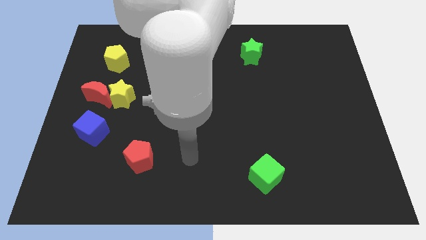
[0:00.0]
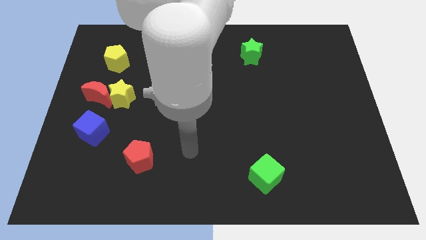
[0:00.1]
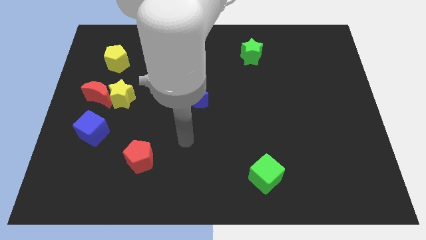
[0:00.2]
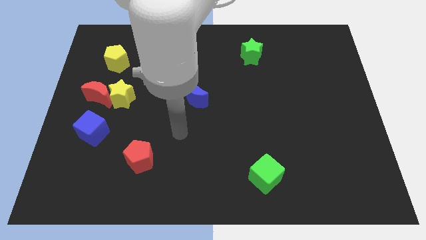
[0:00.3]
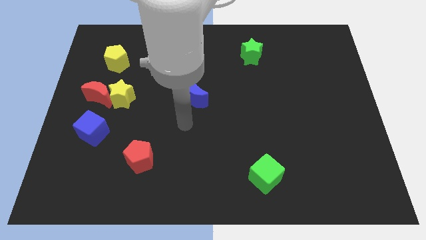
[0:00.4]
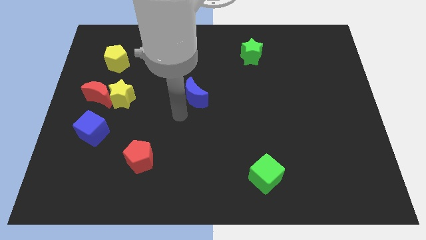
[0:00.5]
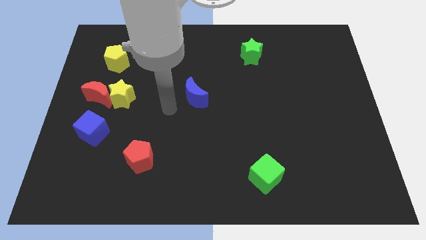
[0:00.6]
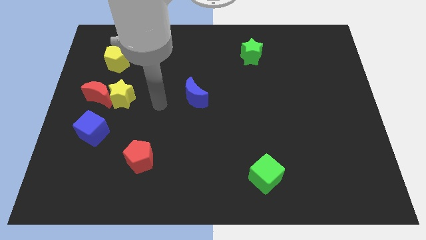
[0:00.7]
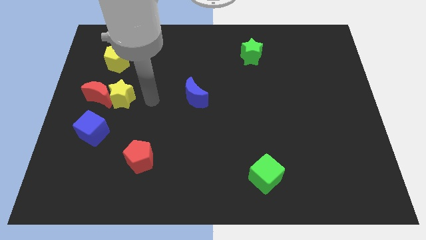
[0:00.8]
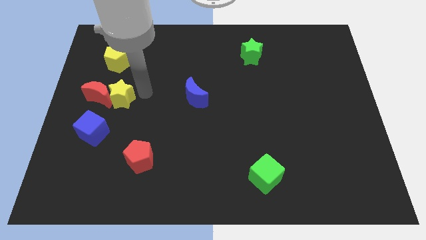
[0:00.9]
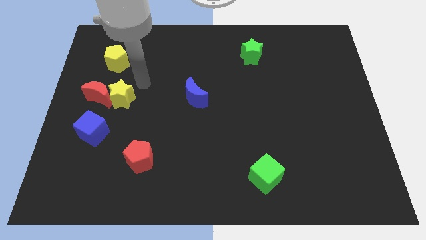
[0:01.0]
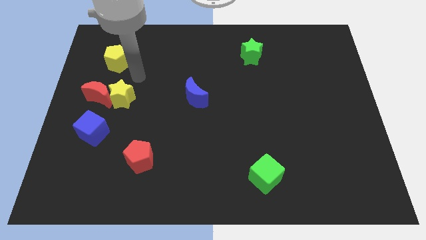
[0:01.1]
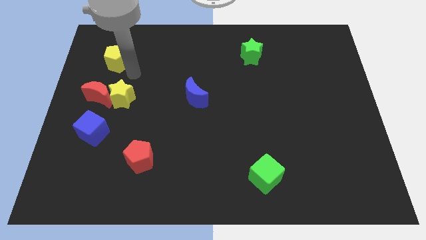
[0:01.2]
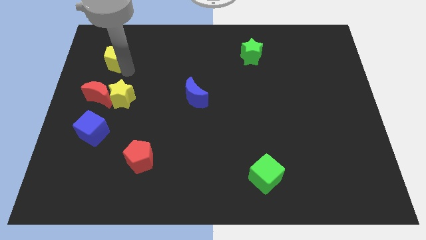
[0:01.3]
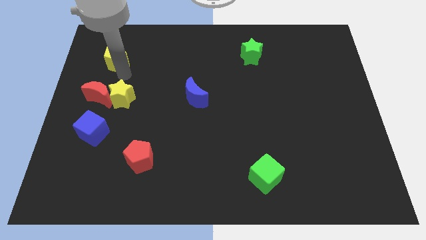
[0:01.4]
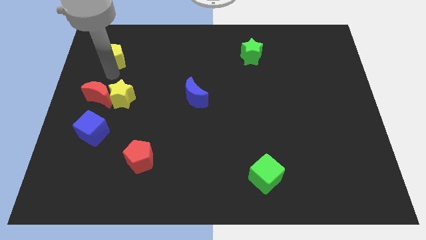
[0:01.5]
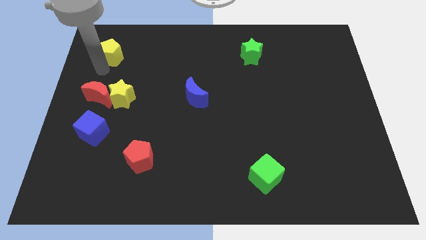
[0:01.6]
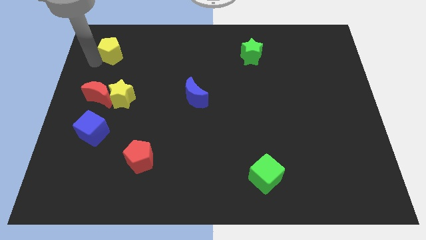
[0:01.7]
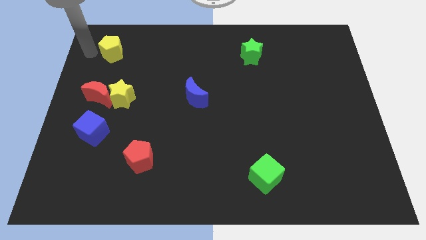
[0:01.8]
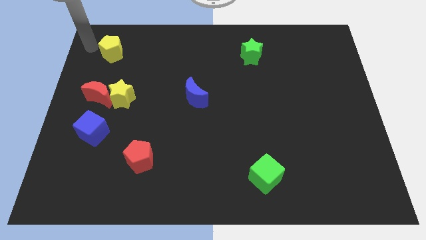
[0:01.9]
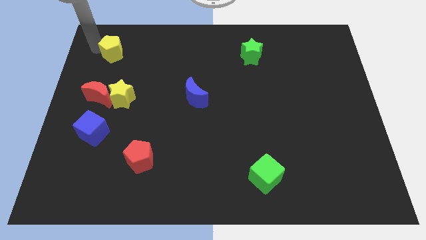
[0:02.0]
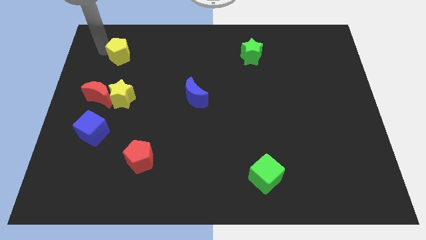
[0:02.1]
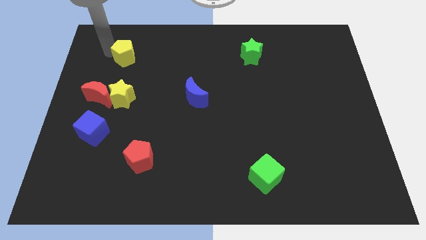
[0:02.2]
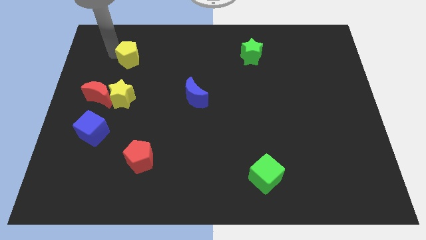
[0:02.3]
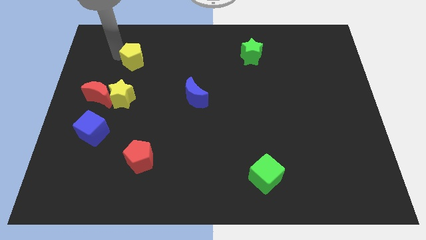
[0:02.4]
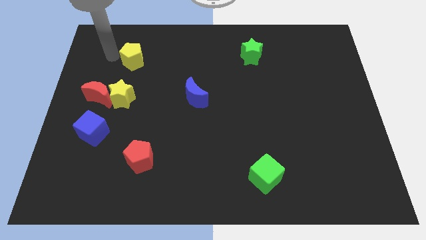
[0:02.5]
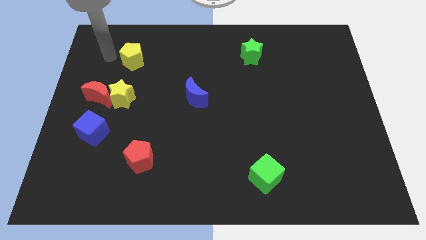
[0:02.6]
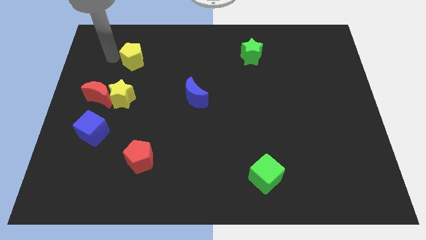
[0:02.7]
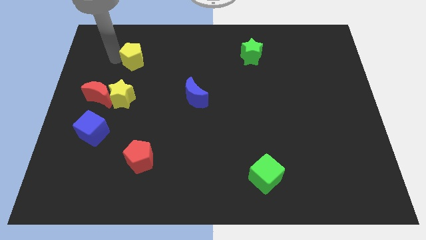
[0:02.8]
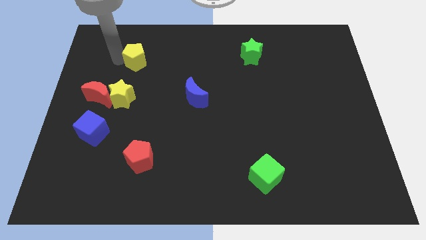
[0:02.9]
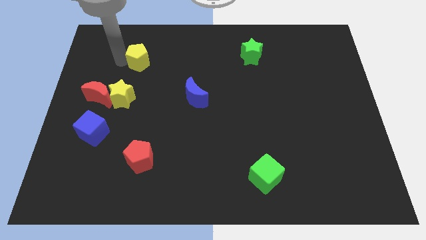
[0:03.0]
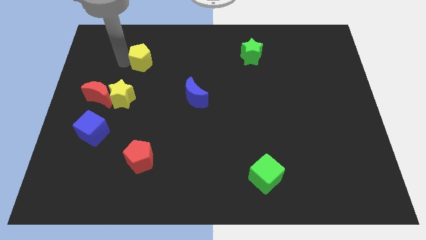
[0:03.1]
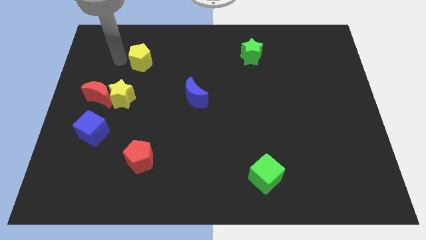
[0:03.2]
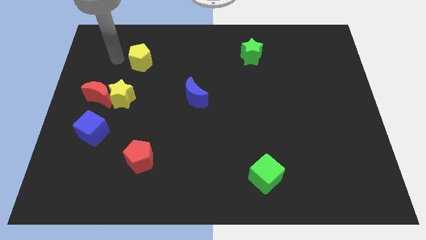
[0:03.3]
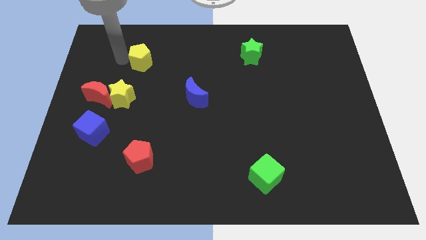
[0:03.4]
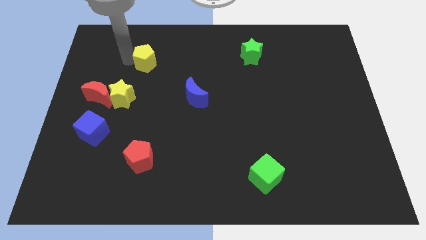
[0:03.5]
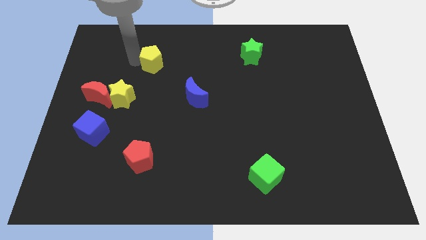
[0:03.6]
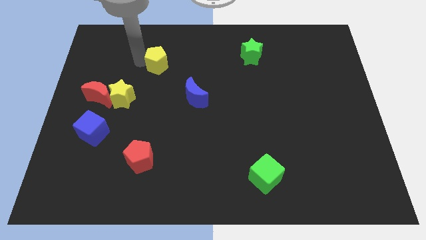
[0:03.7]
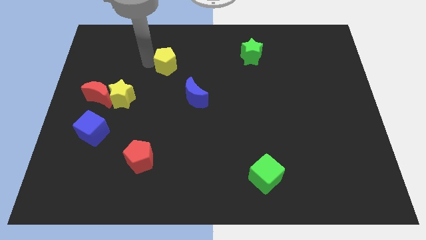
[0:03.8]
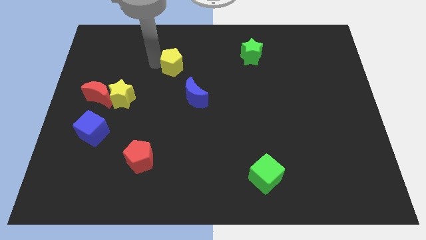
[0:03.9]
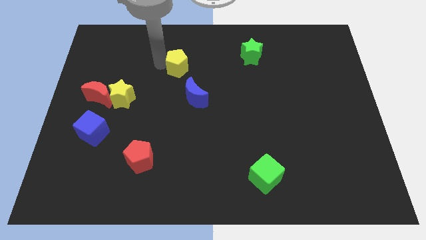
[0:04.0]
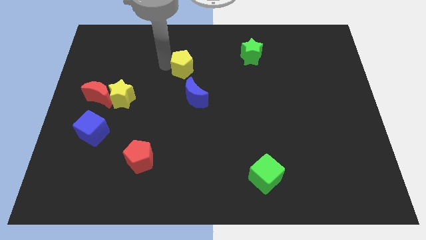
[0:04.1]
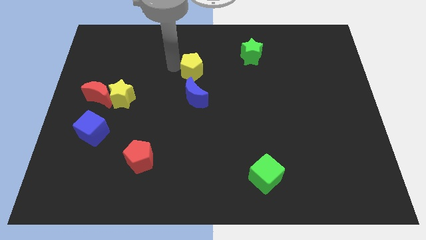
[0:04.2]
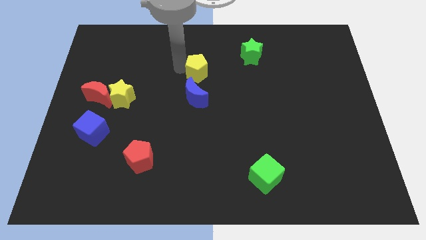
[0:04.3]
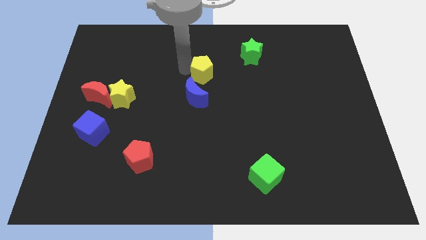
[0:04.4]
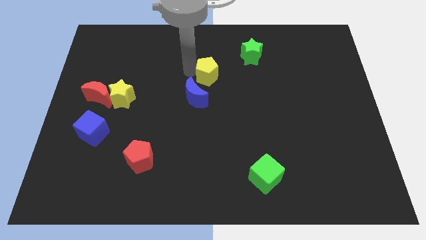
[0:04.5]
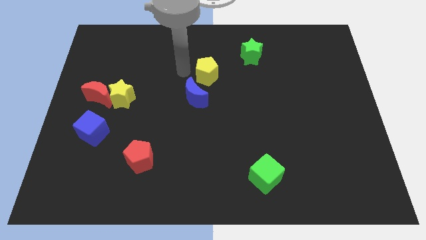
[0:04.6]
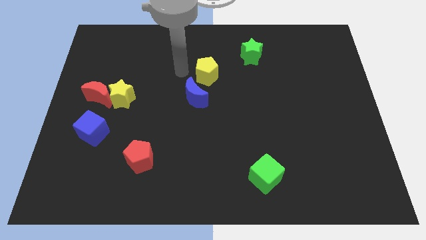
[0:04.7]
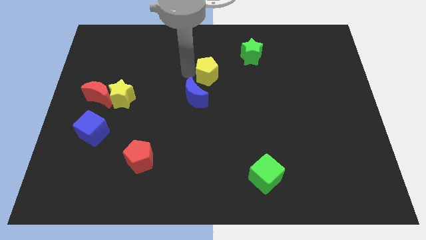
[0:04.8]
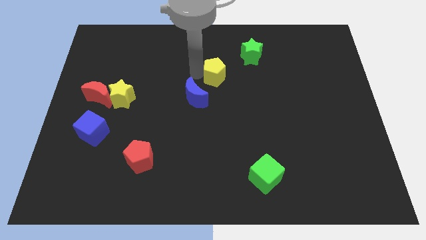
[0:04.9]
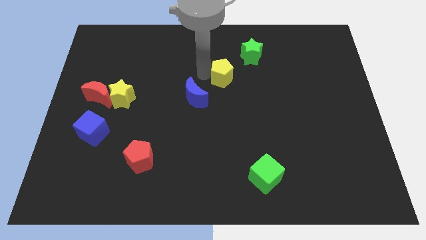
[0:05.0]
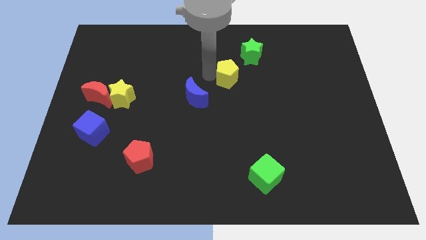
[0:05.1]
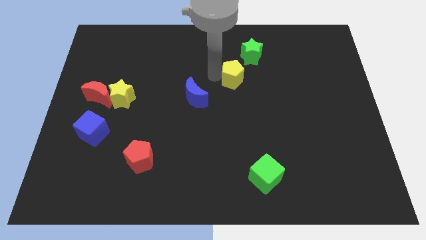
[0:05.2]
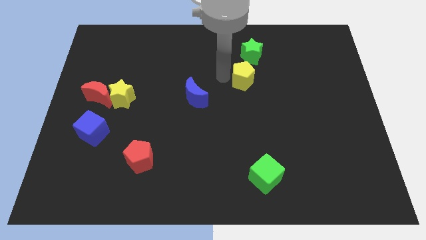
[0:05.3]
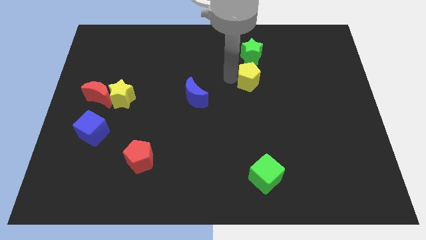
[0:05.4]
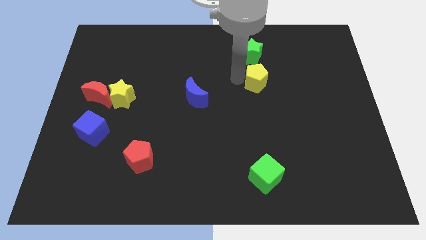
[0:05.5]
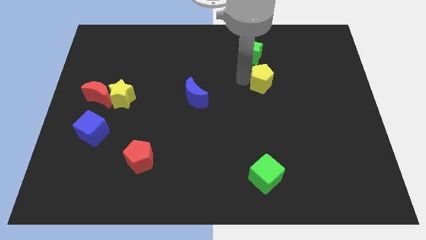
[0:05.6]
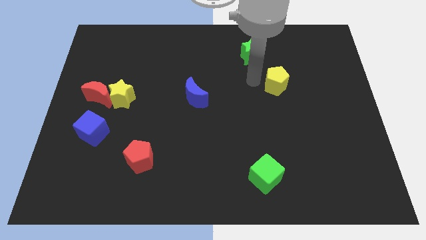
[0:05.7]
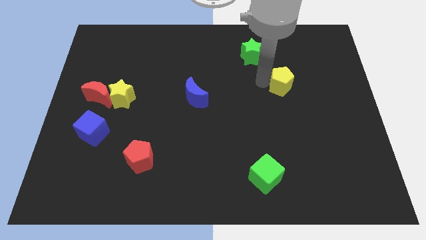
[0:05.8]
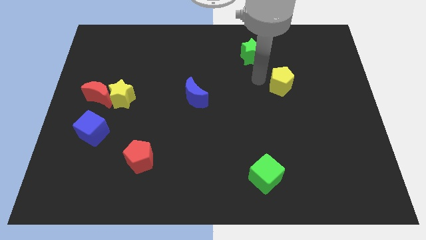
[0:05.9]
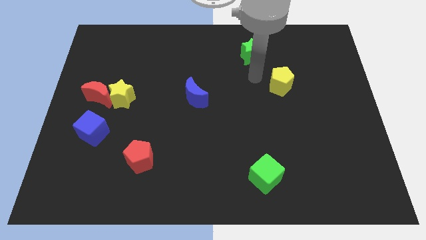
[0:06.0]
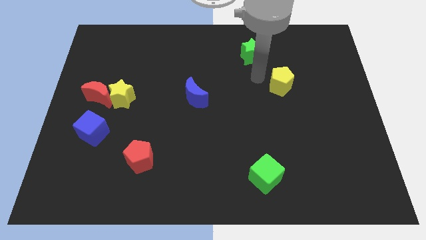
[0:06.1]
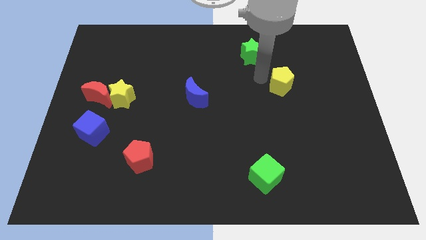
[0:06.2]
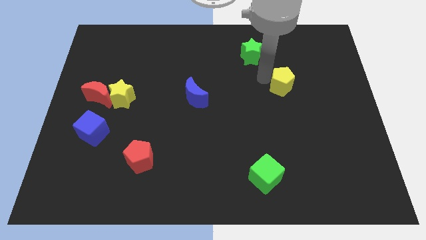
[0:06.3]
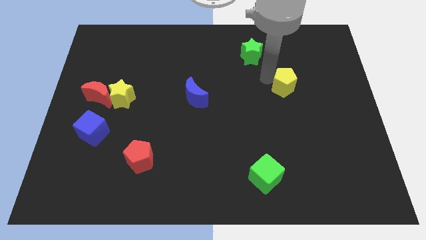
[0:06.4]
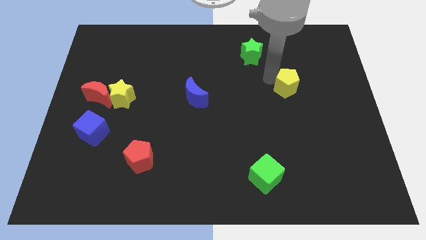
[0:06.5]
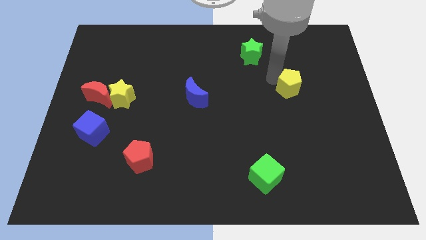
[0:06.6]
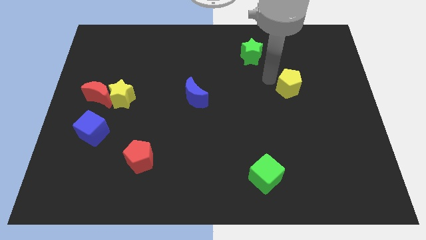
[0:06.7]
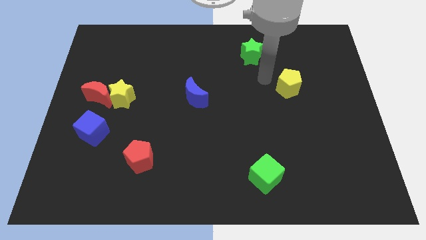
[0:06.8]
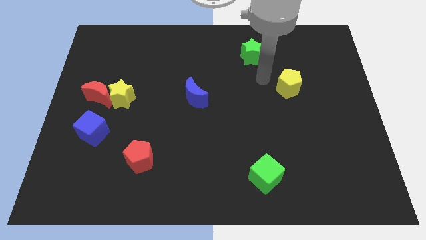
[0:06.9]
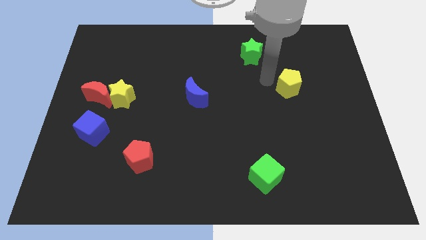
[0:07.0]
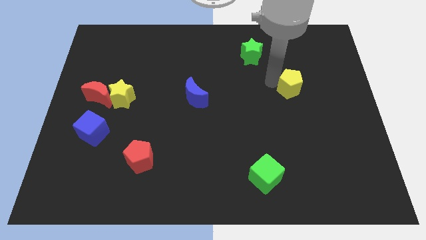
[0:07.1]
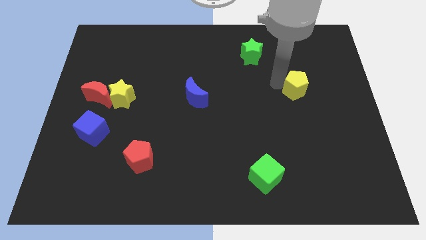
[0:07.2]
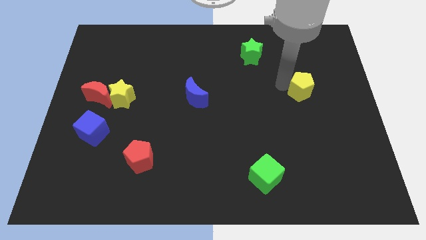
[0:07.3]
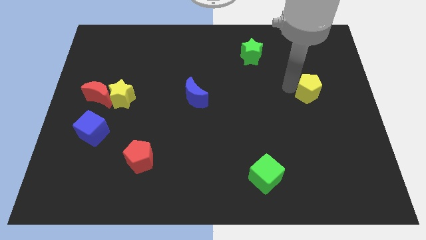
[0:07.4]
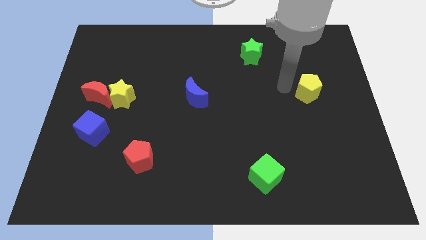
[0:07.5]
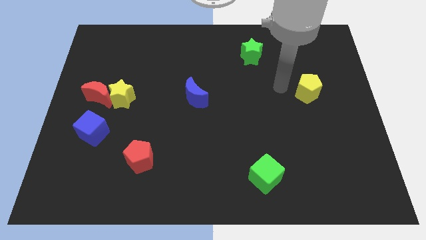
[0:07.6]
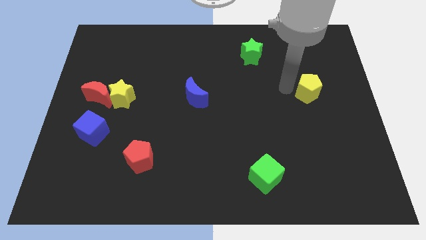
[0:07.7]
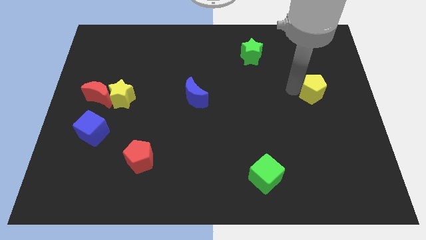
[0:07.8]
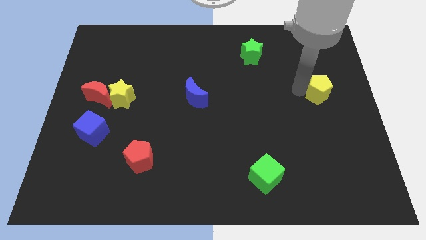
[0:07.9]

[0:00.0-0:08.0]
put the yellow pentagon to the right side
